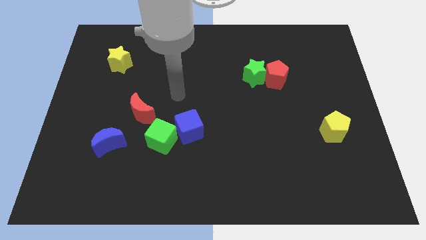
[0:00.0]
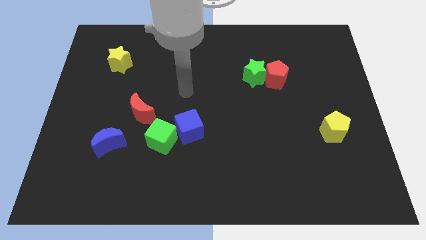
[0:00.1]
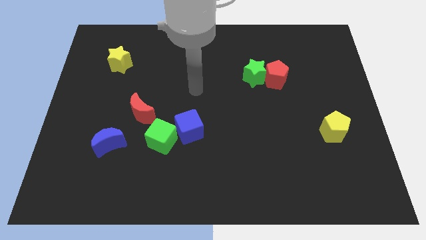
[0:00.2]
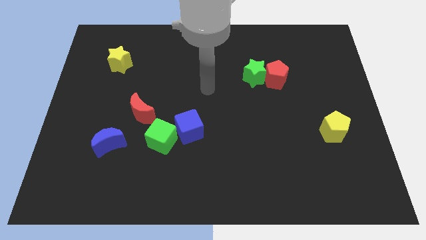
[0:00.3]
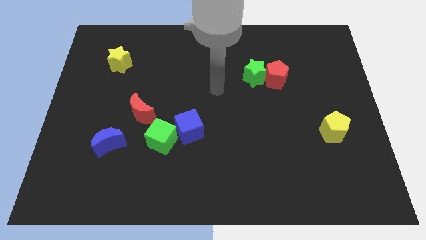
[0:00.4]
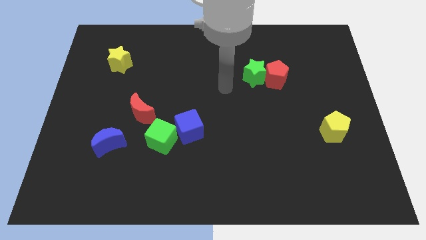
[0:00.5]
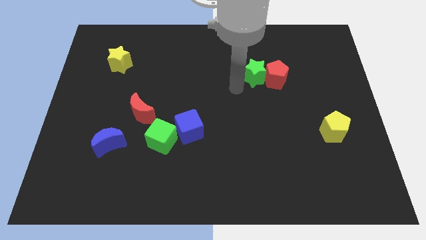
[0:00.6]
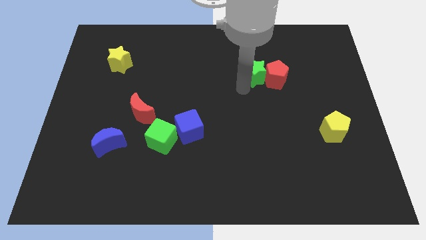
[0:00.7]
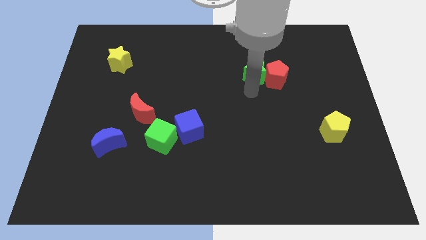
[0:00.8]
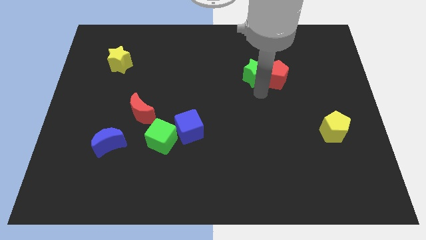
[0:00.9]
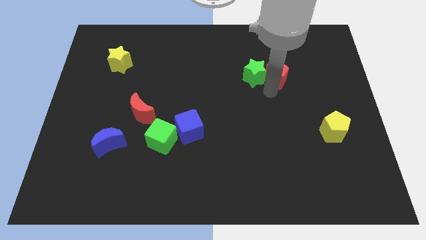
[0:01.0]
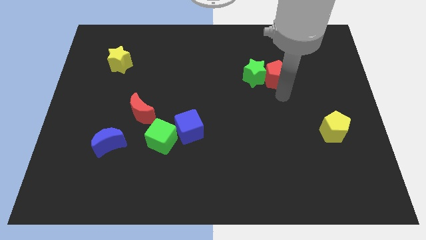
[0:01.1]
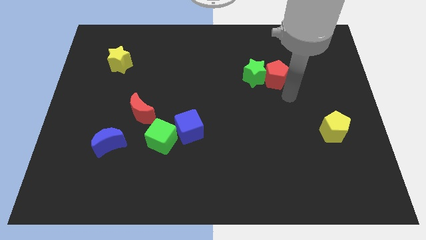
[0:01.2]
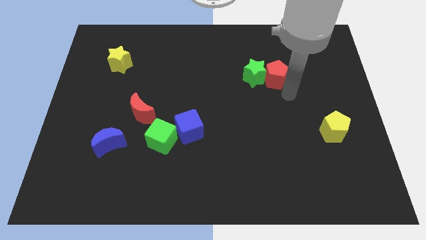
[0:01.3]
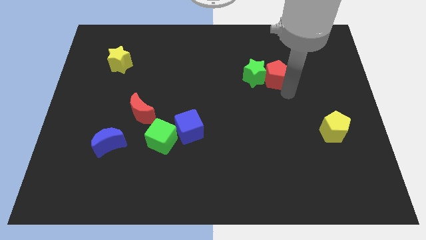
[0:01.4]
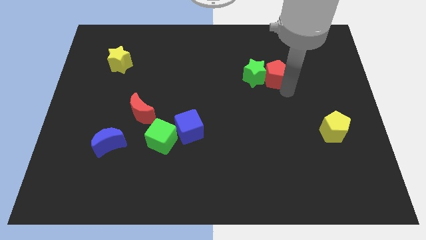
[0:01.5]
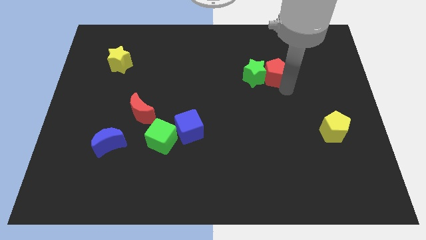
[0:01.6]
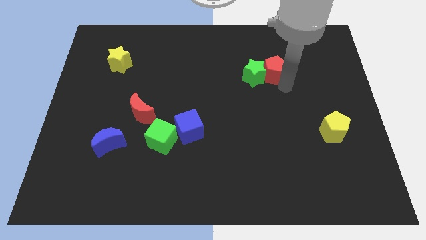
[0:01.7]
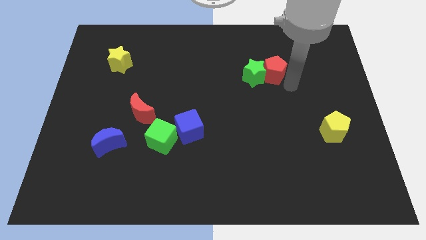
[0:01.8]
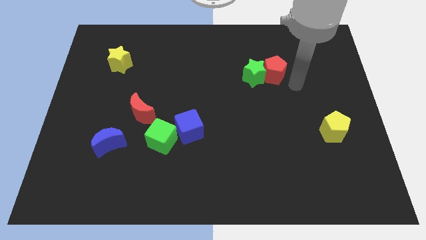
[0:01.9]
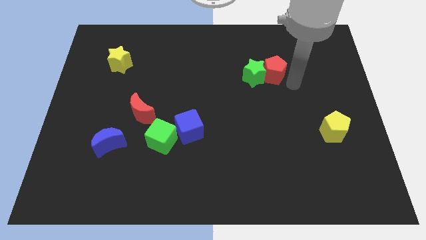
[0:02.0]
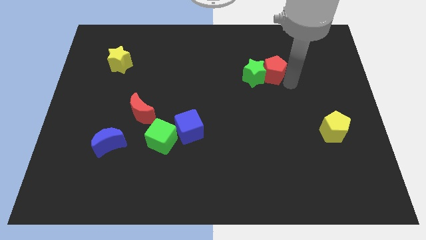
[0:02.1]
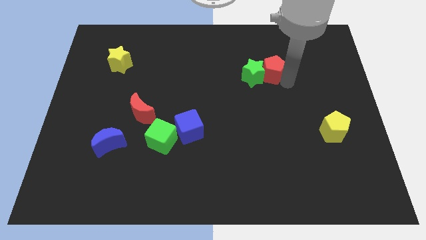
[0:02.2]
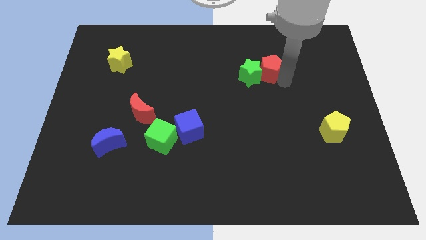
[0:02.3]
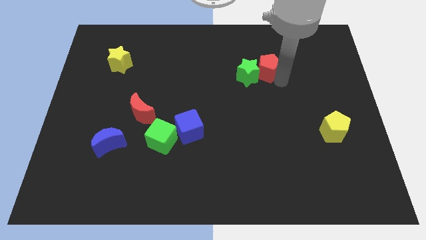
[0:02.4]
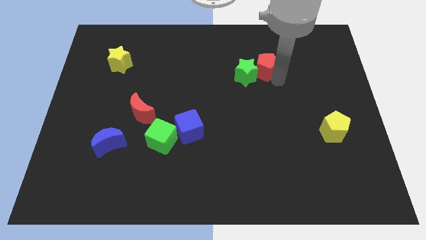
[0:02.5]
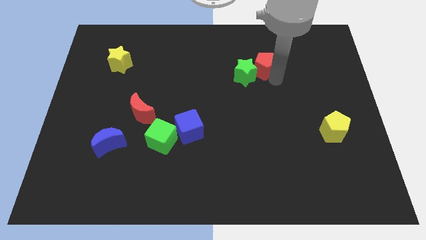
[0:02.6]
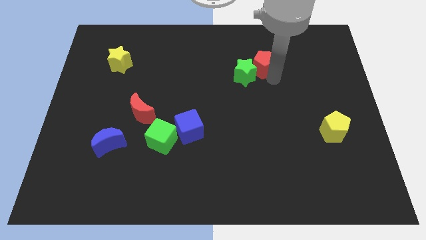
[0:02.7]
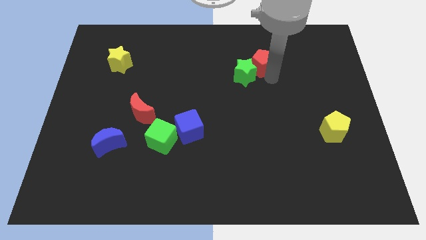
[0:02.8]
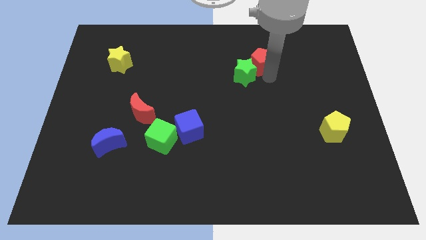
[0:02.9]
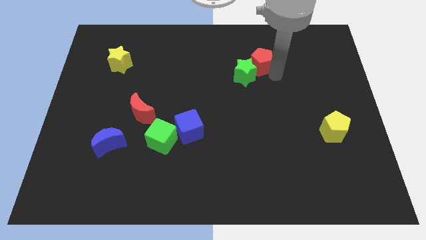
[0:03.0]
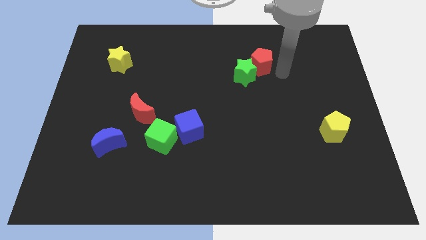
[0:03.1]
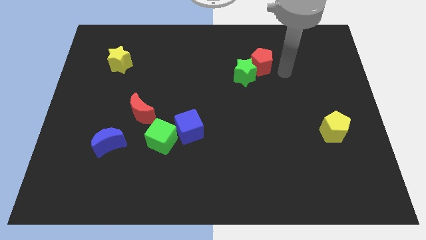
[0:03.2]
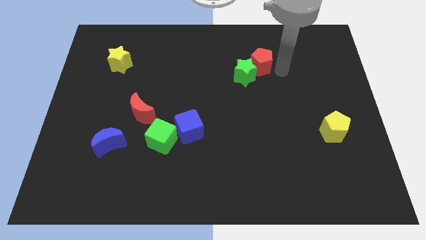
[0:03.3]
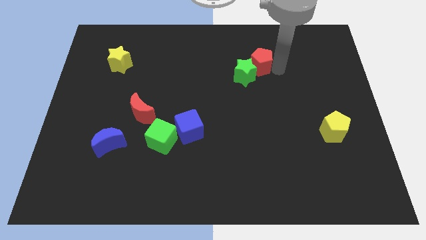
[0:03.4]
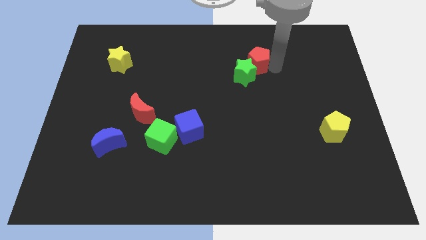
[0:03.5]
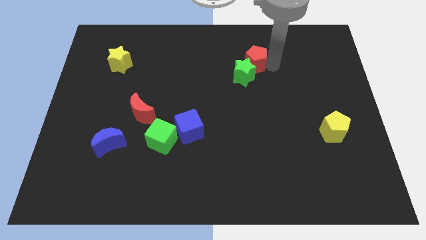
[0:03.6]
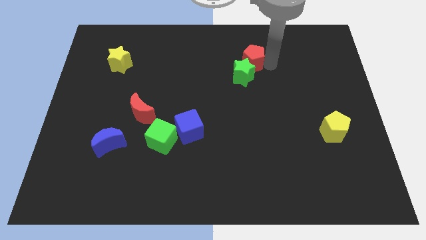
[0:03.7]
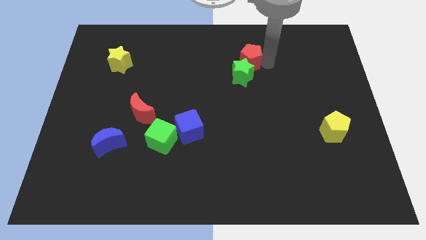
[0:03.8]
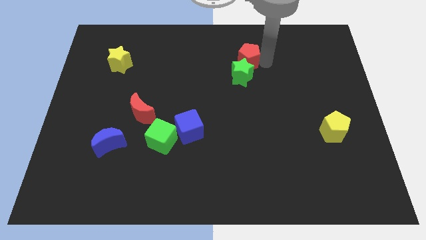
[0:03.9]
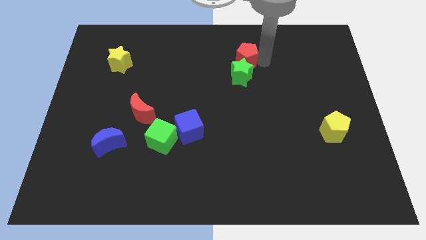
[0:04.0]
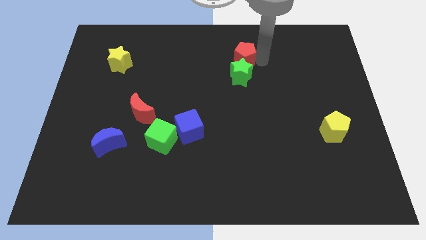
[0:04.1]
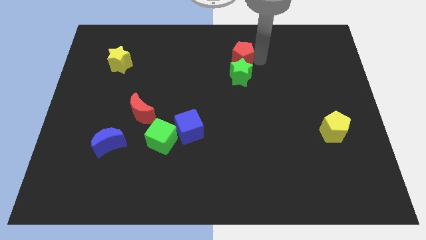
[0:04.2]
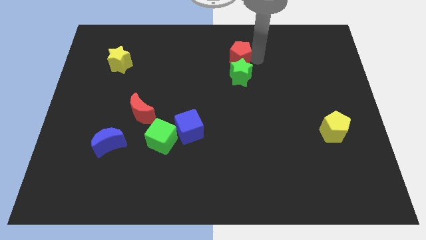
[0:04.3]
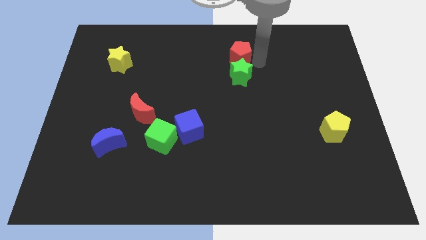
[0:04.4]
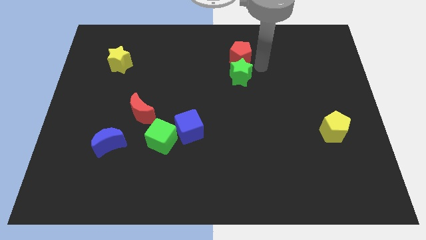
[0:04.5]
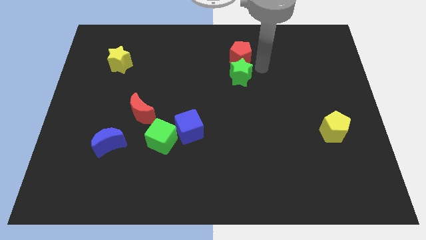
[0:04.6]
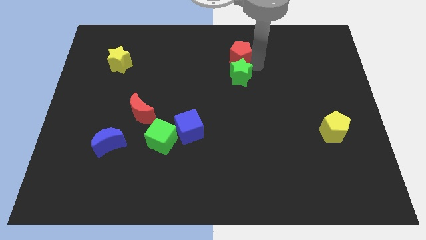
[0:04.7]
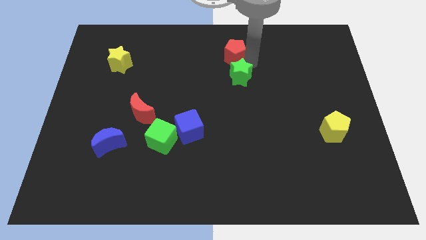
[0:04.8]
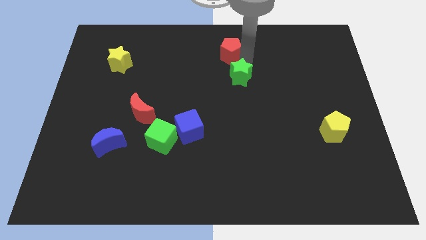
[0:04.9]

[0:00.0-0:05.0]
put the red pentagon to the towards your base

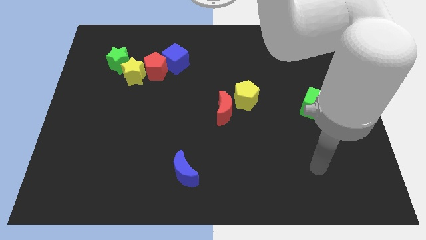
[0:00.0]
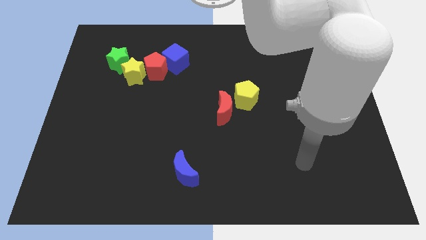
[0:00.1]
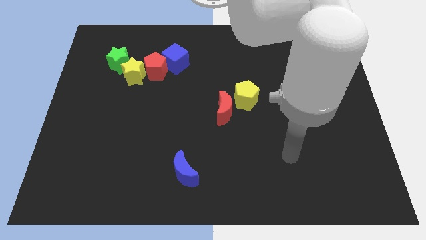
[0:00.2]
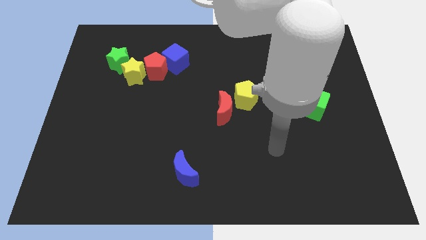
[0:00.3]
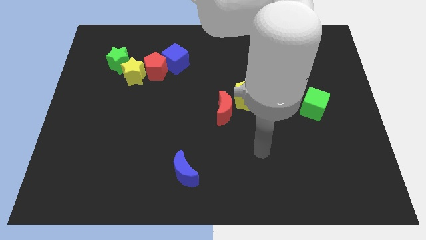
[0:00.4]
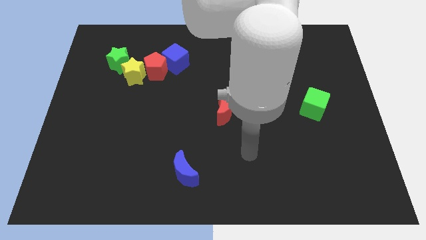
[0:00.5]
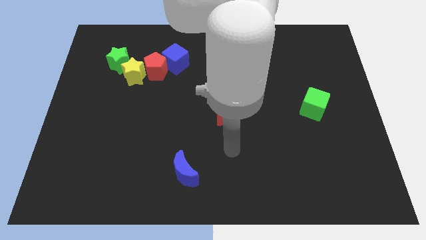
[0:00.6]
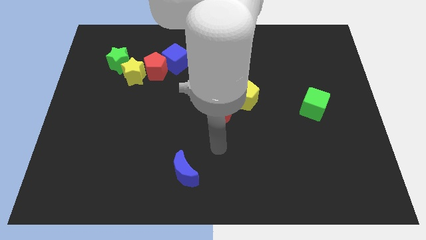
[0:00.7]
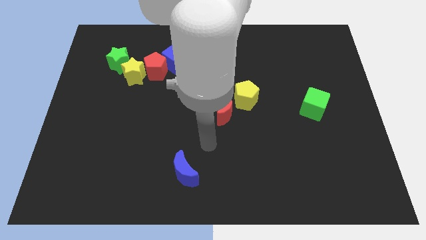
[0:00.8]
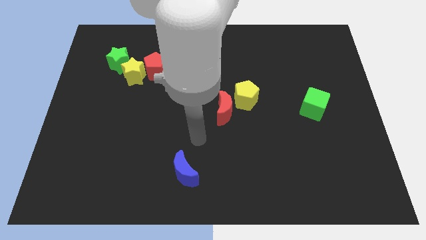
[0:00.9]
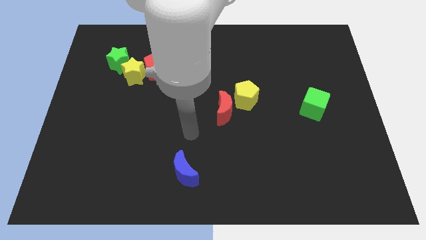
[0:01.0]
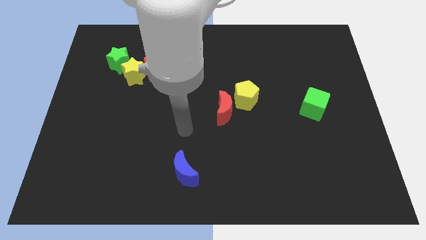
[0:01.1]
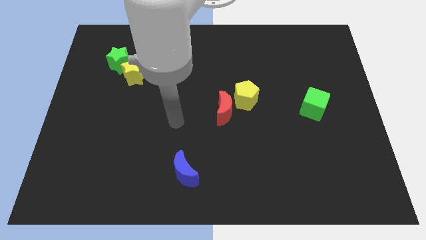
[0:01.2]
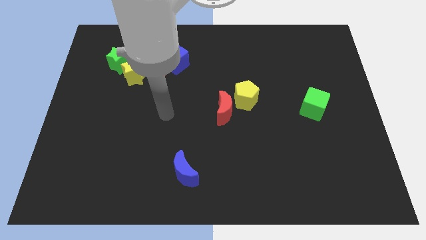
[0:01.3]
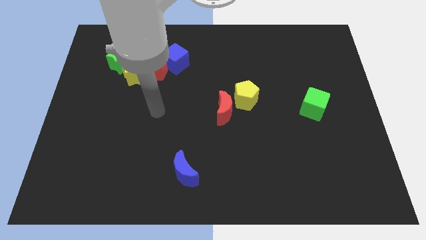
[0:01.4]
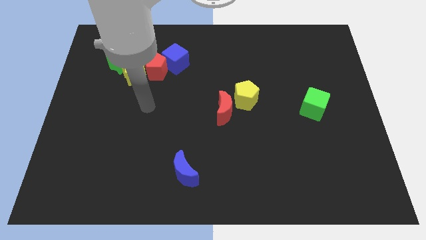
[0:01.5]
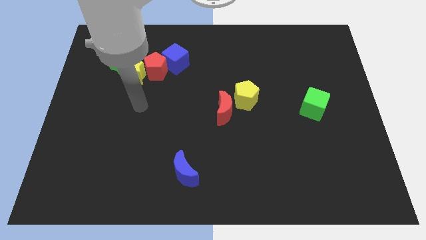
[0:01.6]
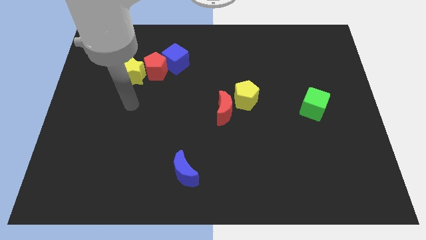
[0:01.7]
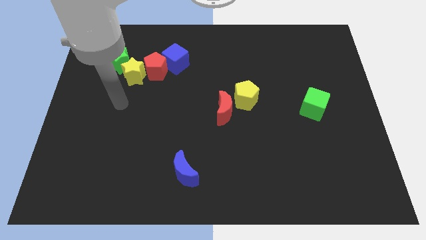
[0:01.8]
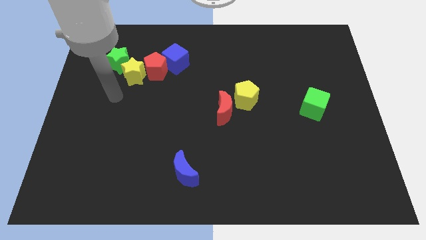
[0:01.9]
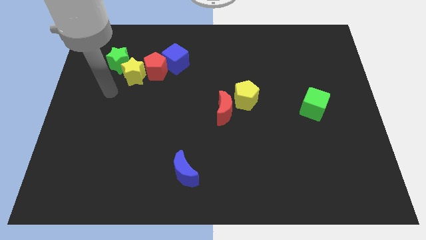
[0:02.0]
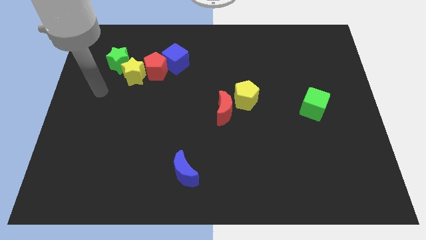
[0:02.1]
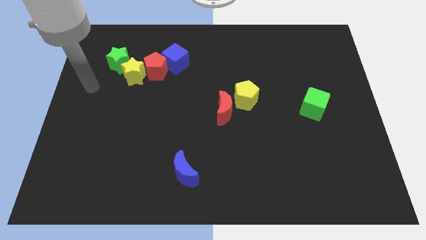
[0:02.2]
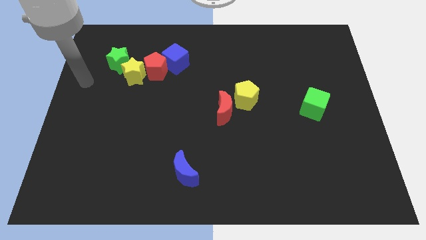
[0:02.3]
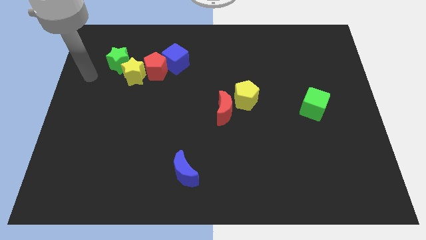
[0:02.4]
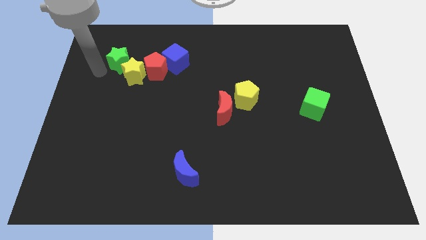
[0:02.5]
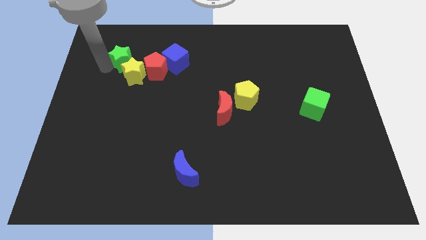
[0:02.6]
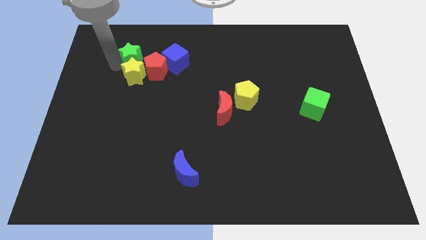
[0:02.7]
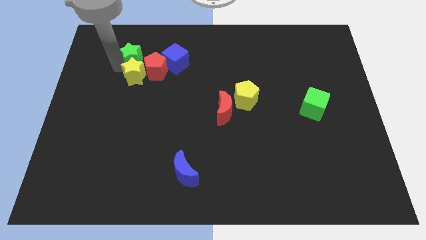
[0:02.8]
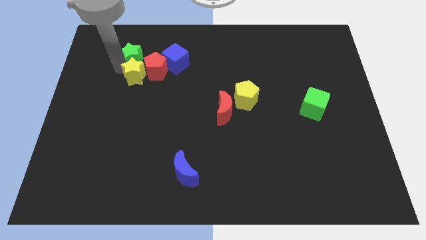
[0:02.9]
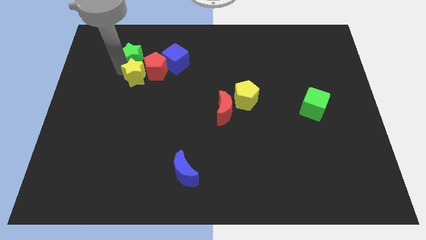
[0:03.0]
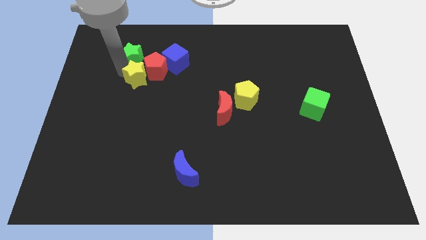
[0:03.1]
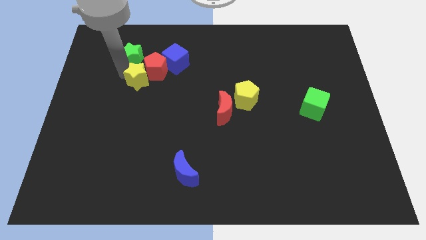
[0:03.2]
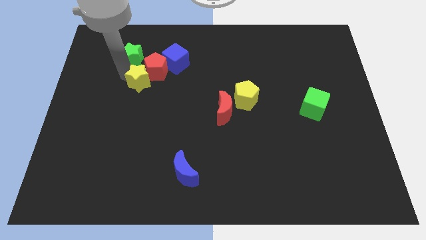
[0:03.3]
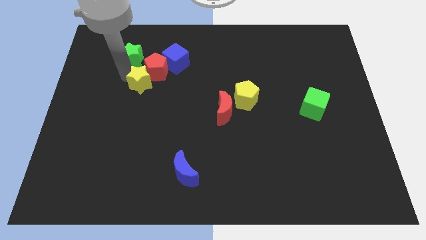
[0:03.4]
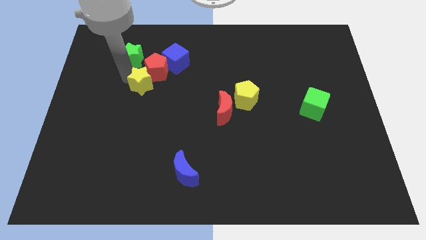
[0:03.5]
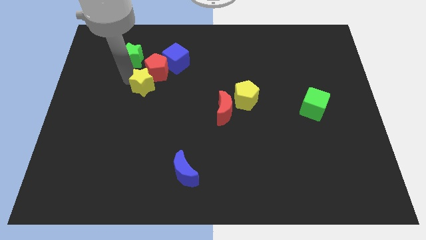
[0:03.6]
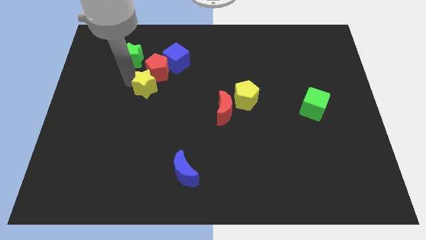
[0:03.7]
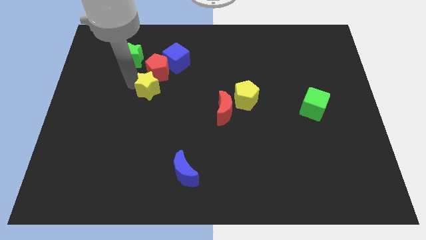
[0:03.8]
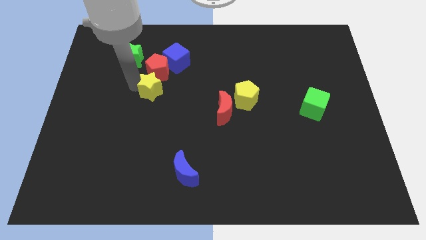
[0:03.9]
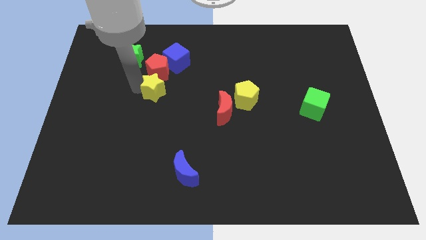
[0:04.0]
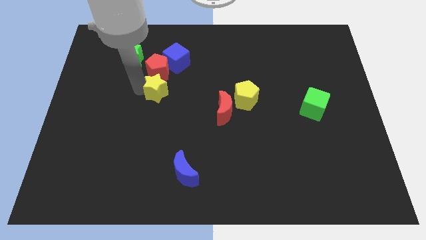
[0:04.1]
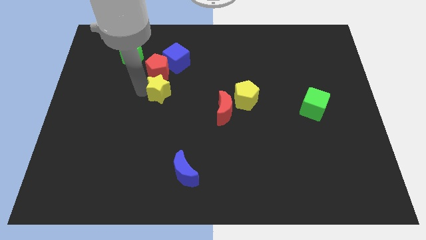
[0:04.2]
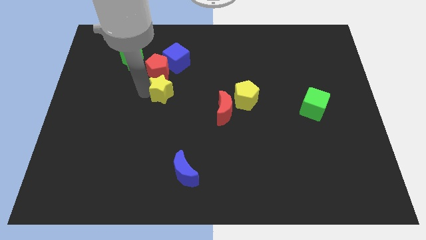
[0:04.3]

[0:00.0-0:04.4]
put the yellow star to the middle
